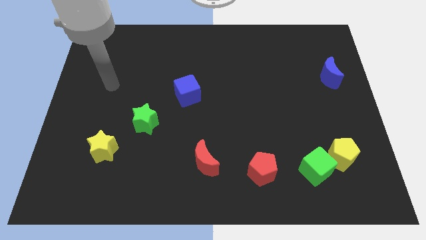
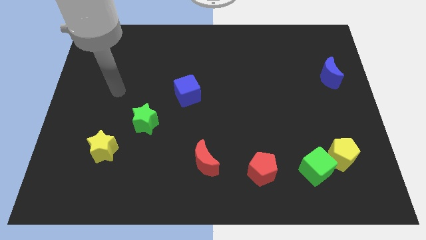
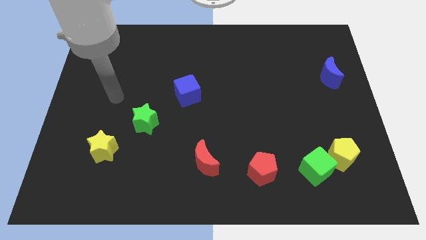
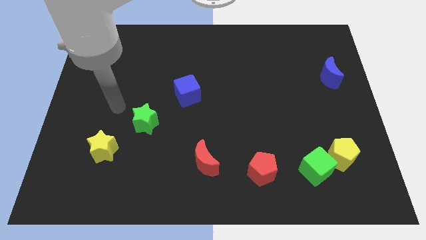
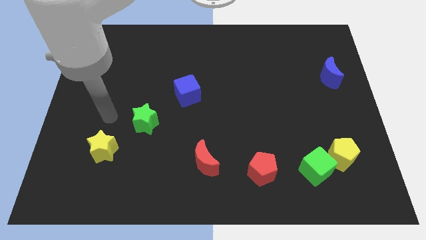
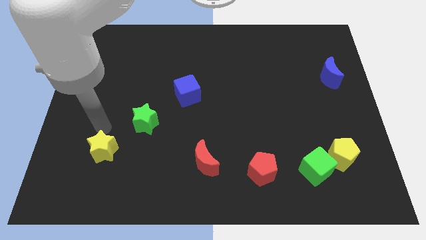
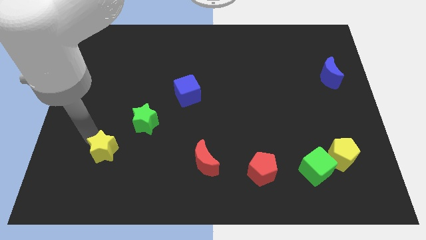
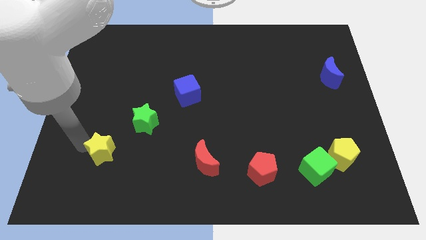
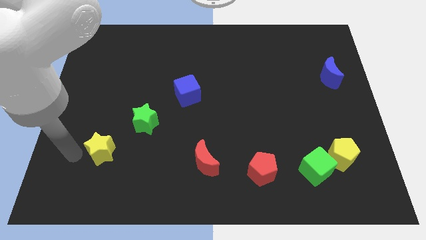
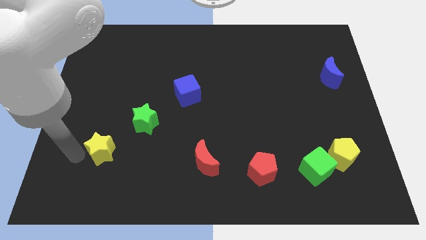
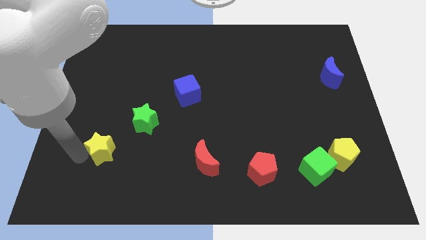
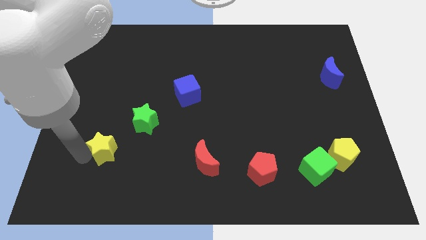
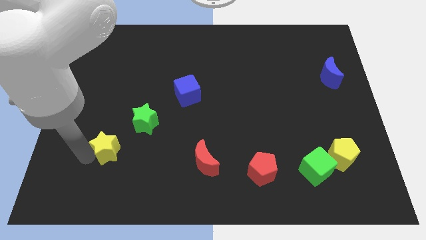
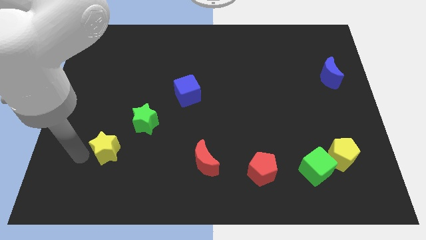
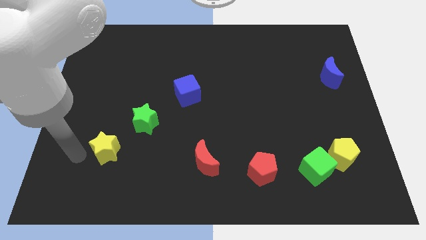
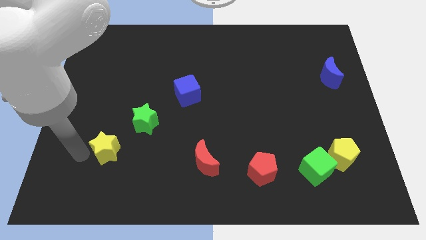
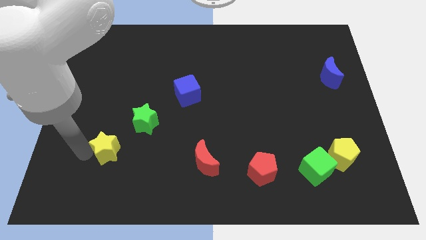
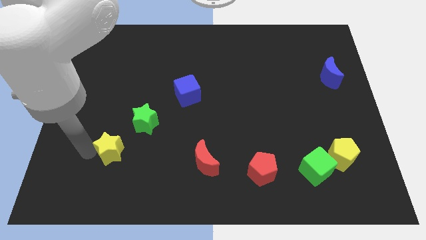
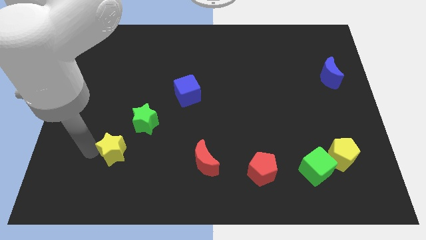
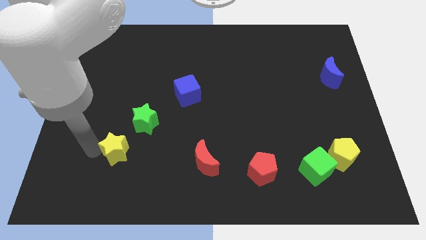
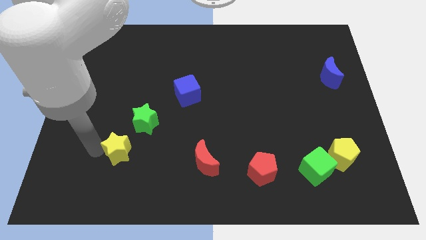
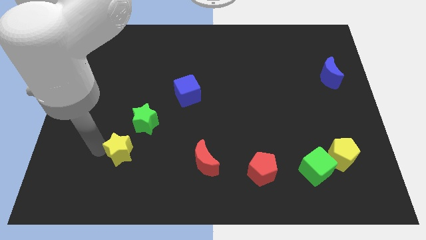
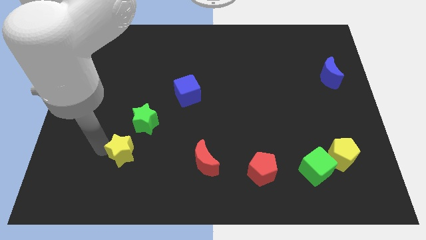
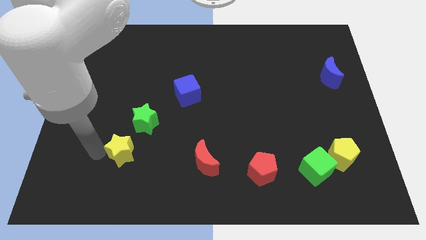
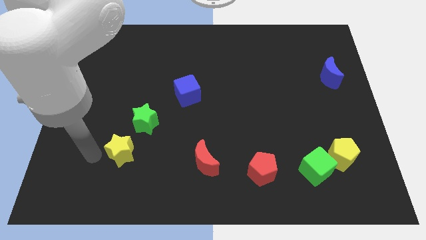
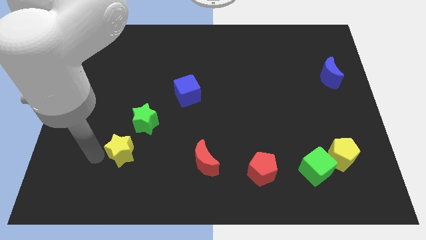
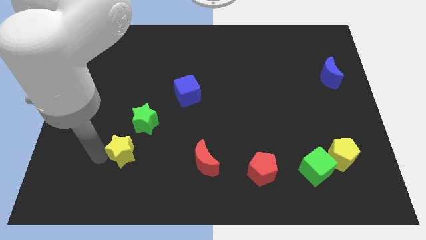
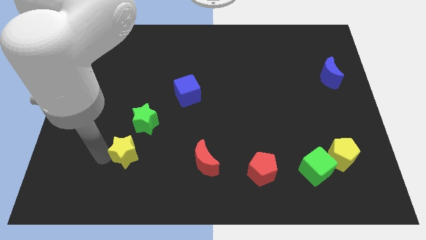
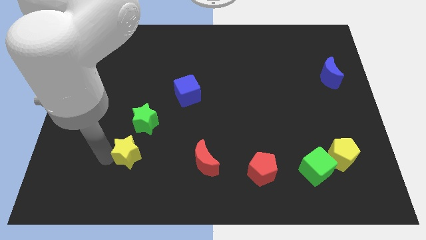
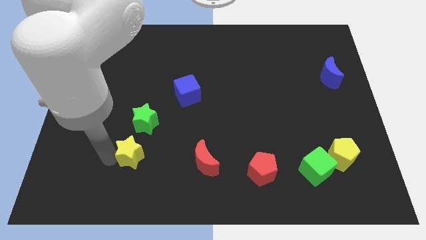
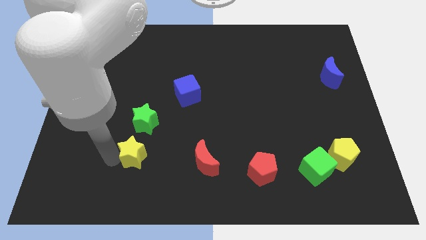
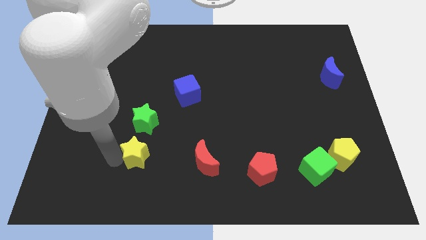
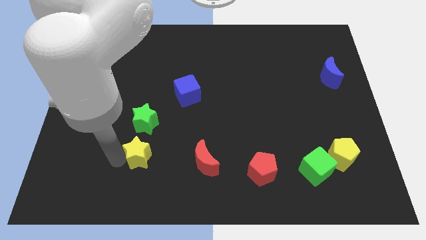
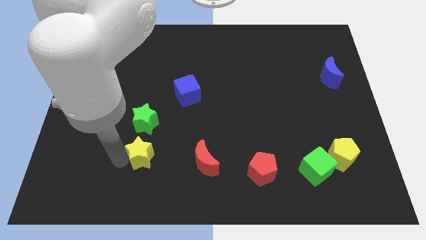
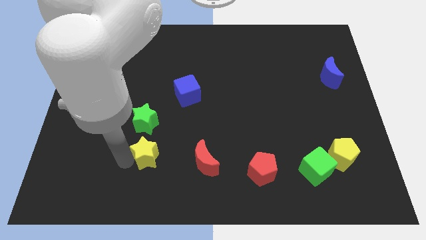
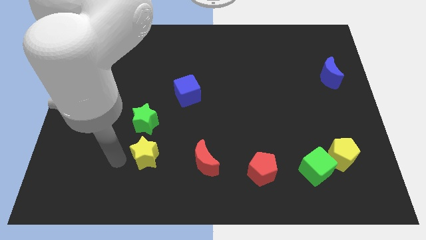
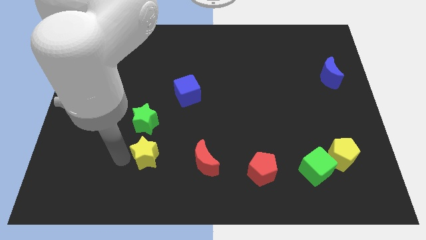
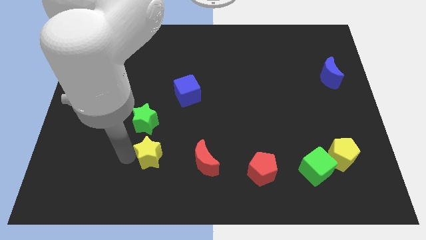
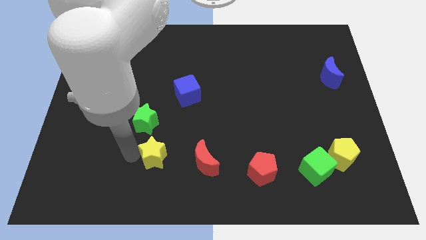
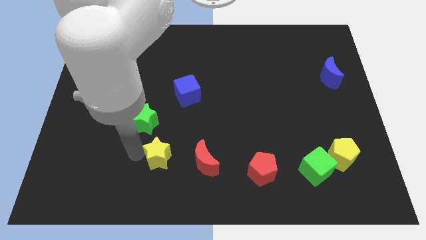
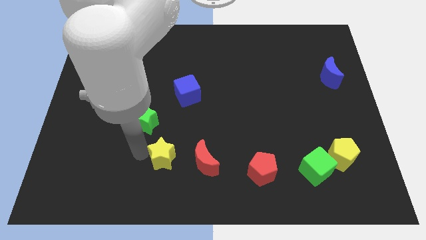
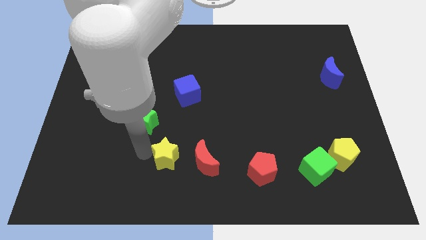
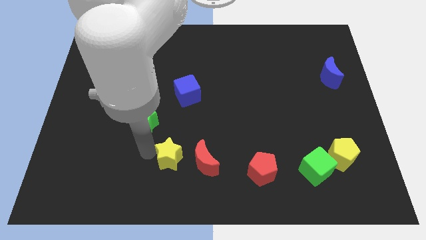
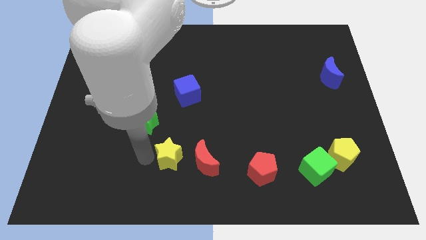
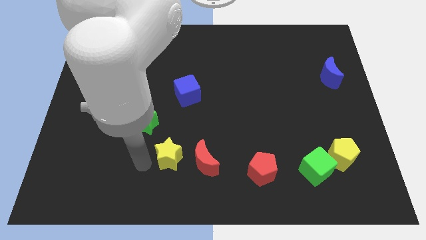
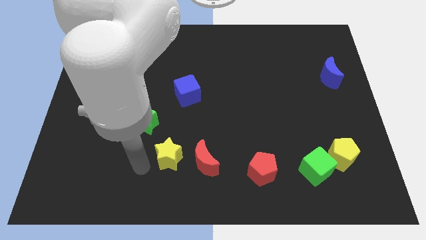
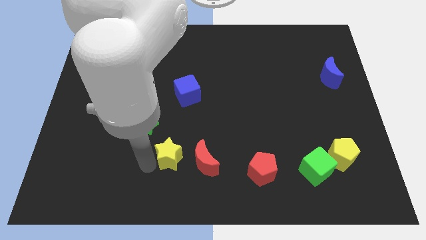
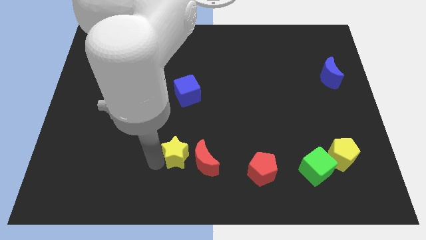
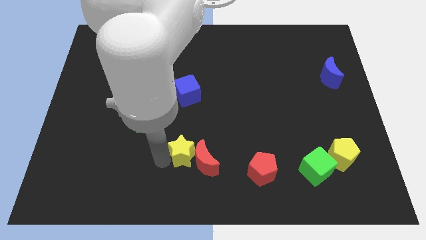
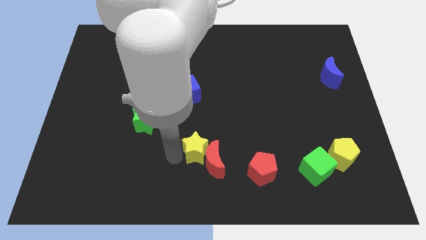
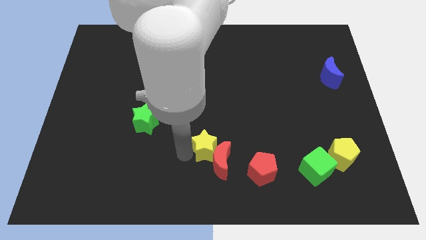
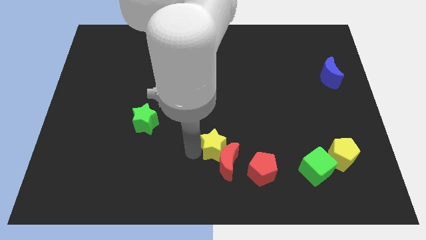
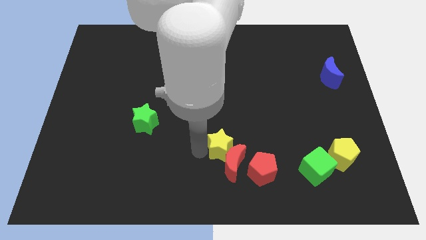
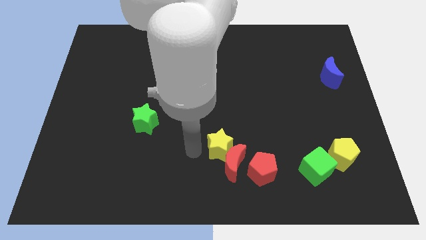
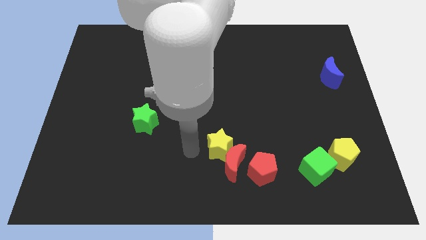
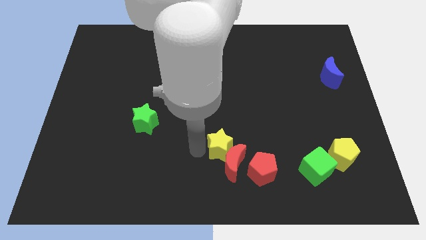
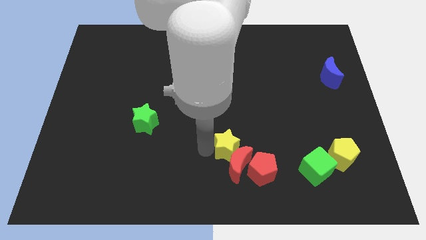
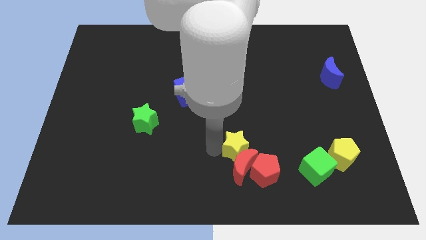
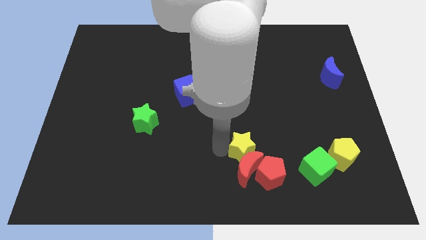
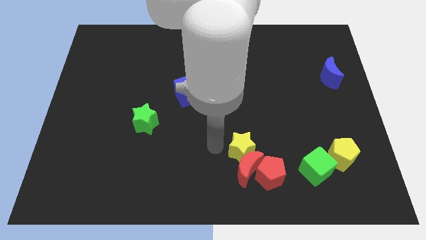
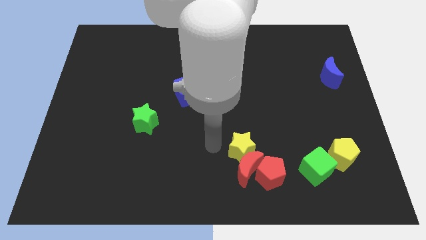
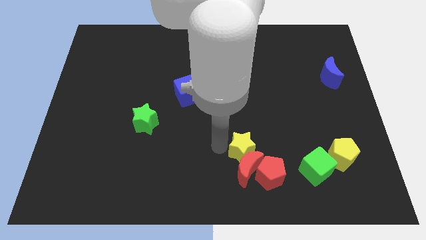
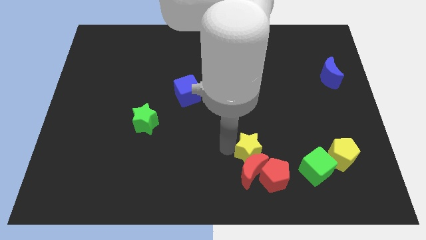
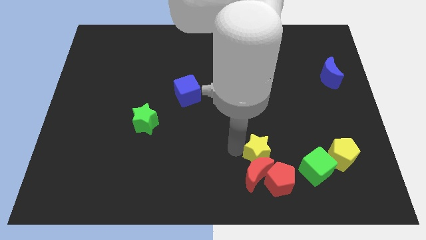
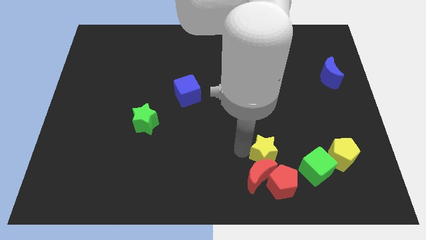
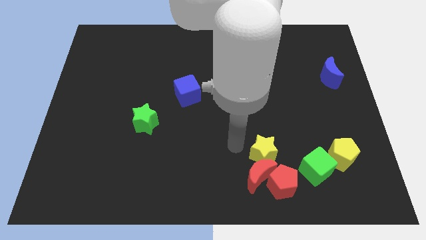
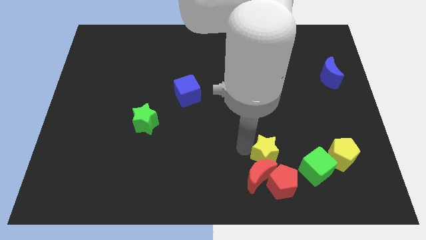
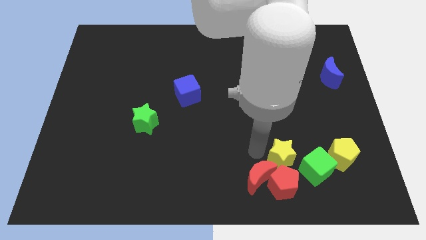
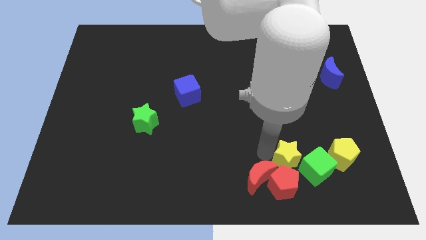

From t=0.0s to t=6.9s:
put the yellow star close to the green cube
